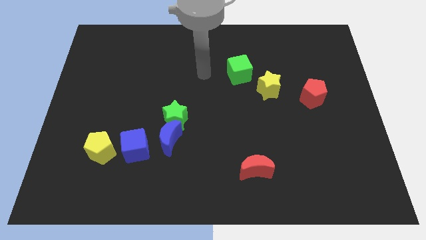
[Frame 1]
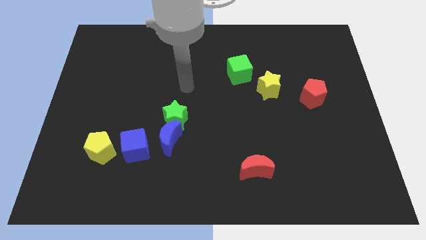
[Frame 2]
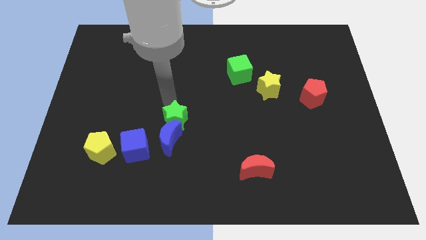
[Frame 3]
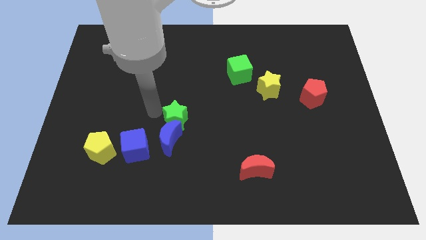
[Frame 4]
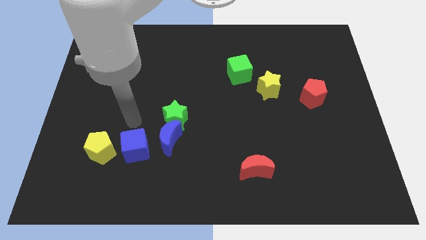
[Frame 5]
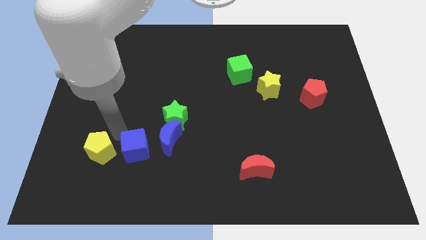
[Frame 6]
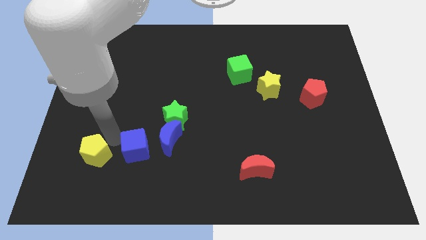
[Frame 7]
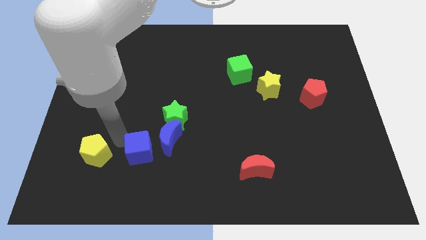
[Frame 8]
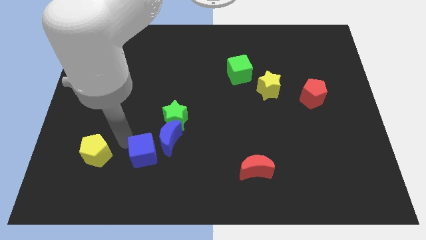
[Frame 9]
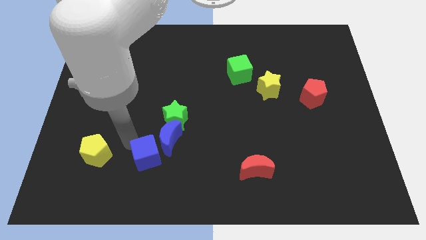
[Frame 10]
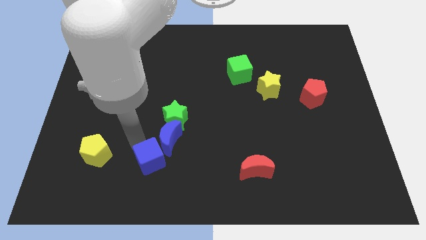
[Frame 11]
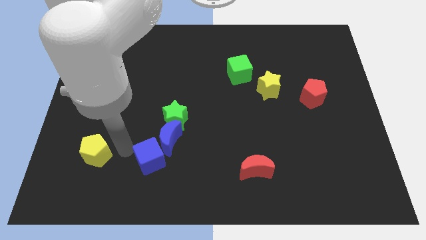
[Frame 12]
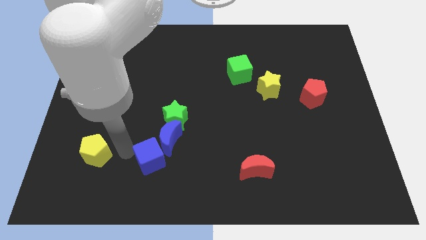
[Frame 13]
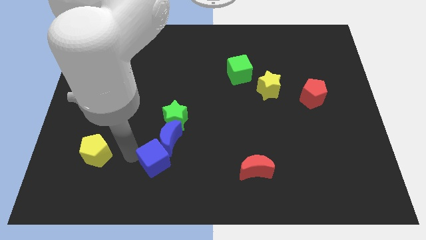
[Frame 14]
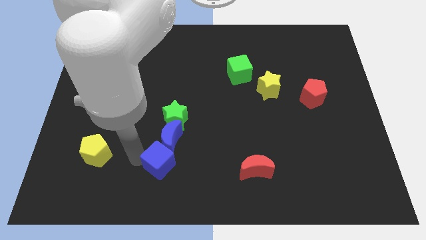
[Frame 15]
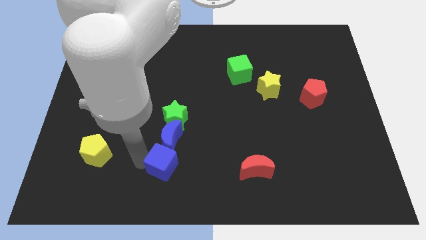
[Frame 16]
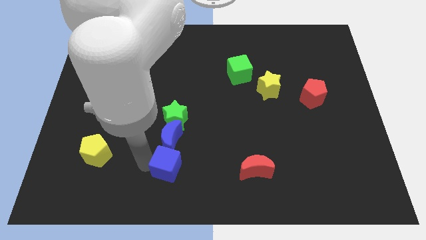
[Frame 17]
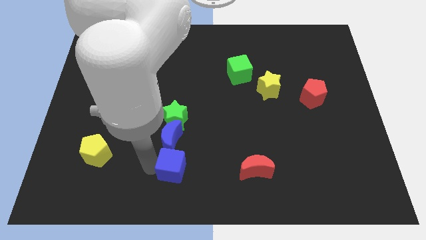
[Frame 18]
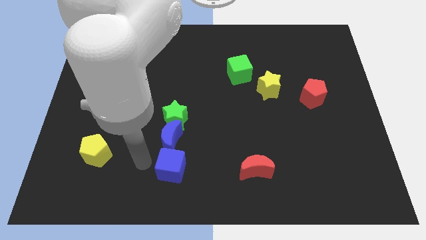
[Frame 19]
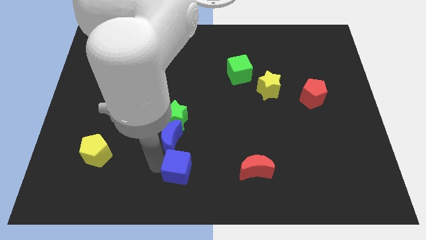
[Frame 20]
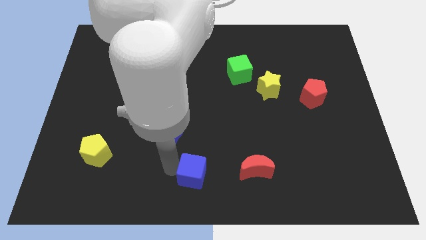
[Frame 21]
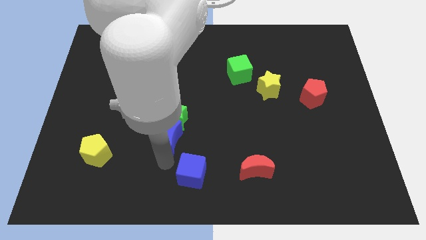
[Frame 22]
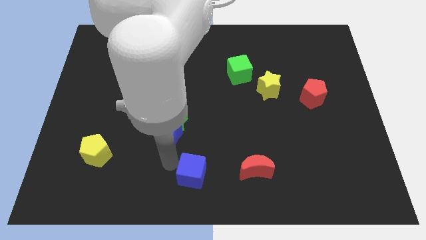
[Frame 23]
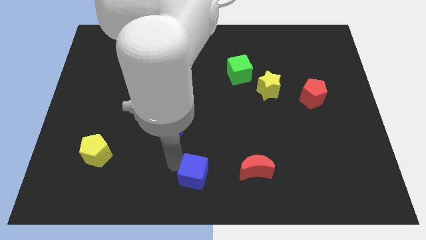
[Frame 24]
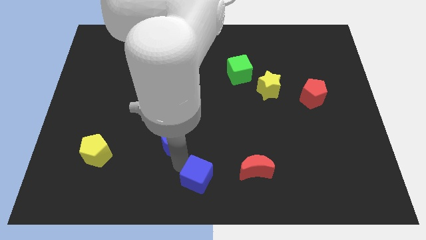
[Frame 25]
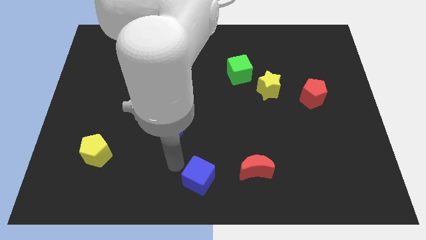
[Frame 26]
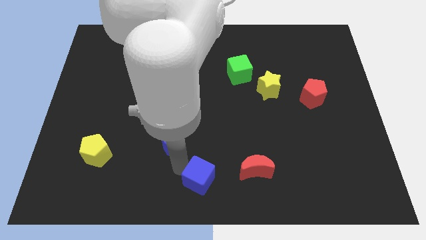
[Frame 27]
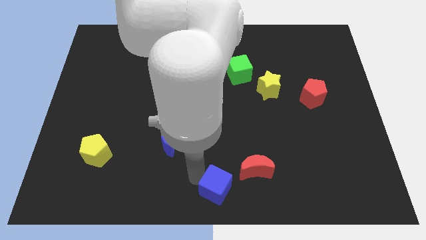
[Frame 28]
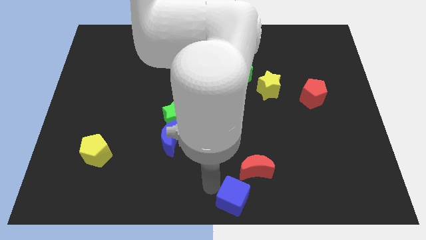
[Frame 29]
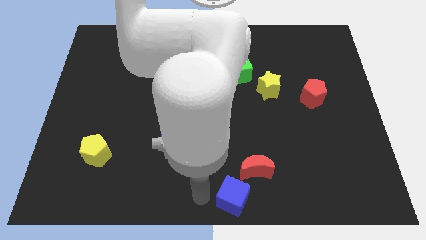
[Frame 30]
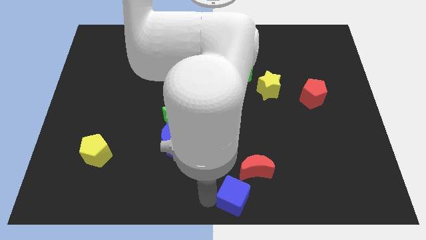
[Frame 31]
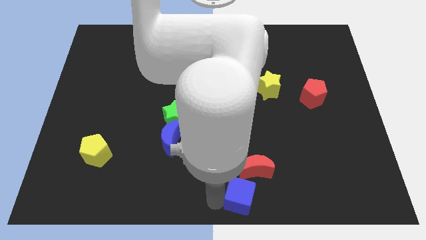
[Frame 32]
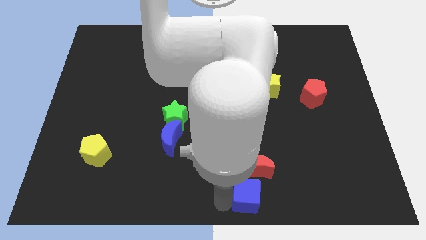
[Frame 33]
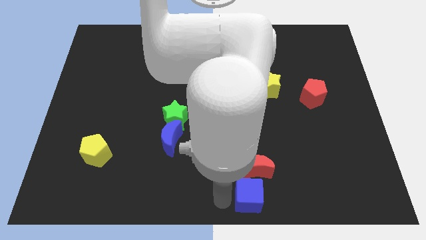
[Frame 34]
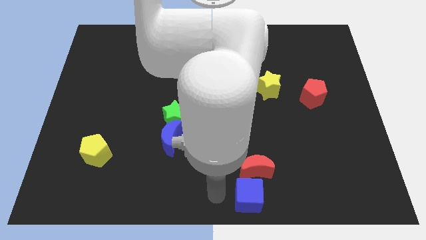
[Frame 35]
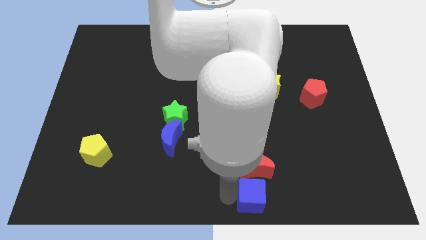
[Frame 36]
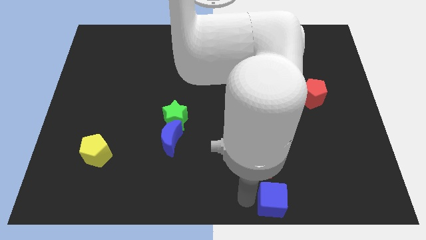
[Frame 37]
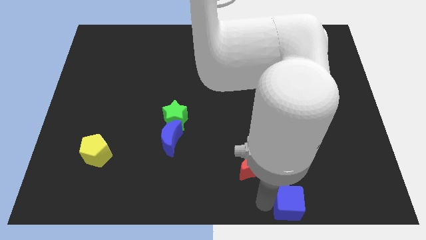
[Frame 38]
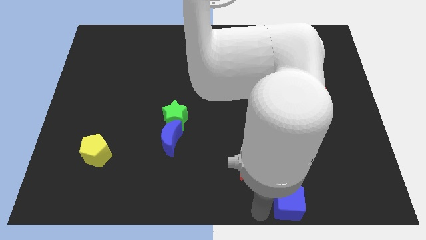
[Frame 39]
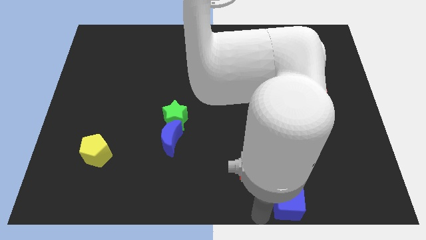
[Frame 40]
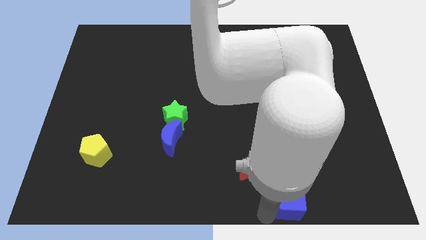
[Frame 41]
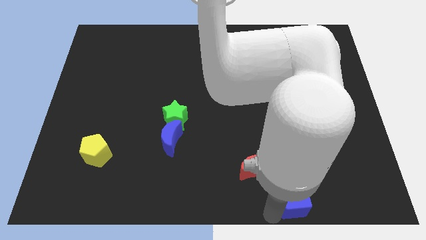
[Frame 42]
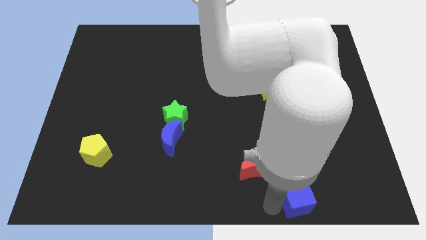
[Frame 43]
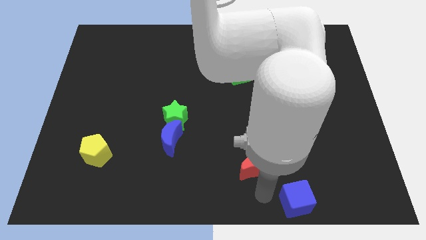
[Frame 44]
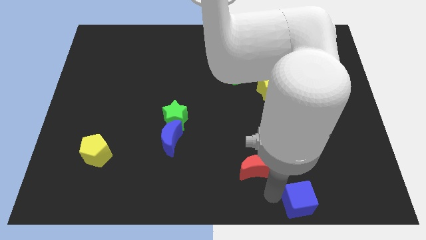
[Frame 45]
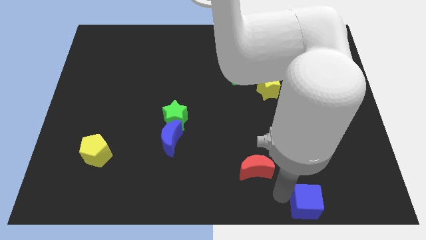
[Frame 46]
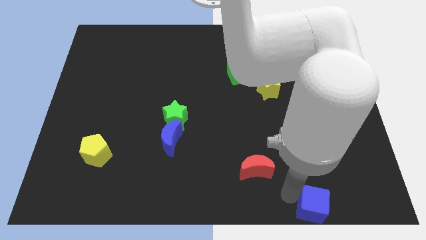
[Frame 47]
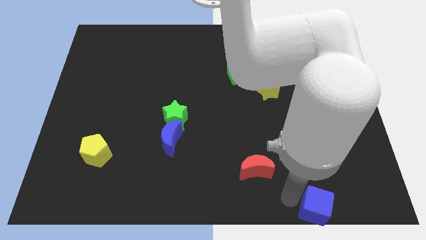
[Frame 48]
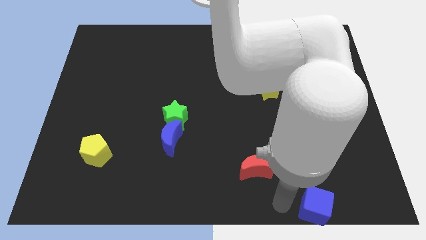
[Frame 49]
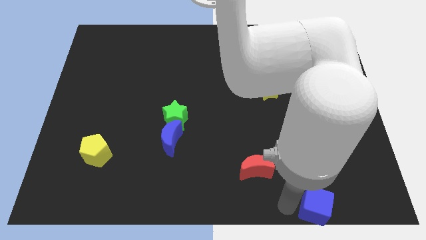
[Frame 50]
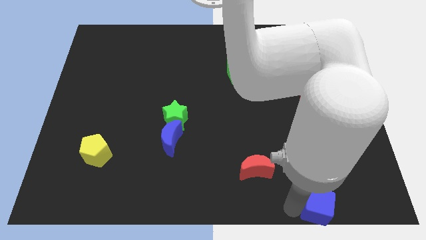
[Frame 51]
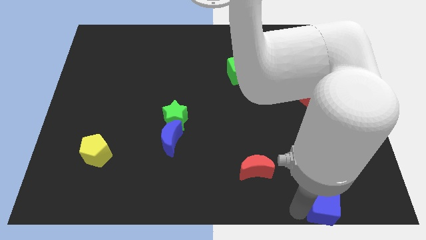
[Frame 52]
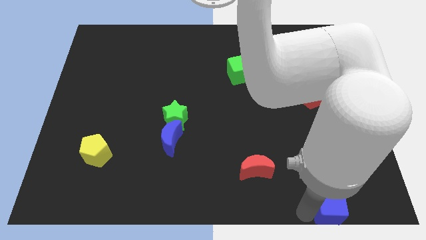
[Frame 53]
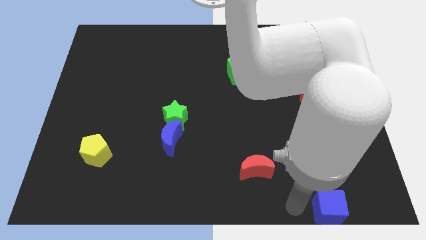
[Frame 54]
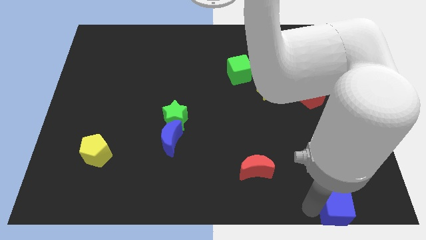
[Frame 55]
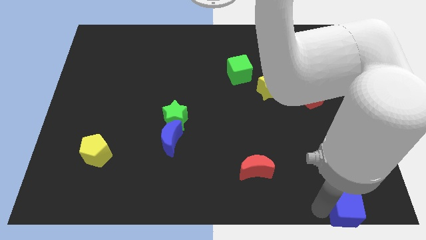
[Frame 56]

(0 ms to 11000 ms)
move the blue cube to the bottom right corner
